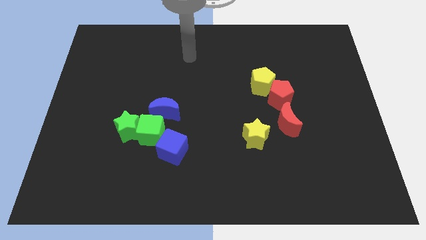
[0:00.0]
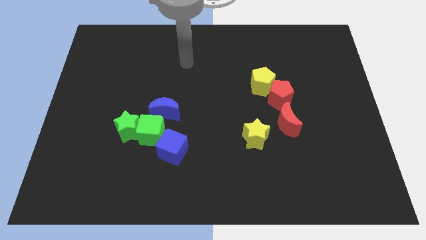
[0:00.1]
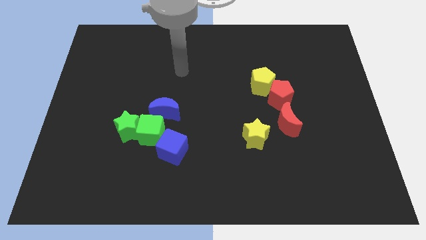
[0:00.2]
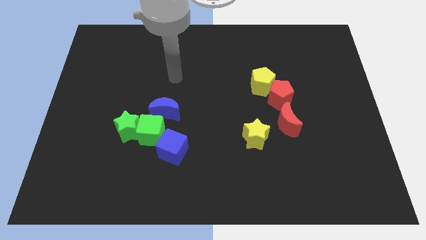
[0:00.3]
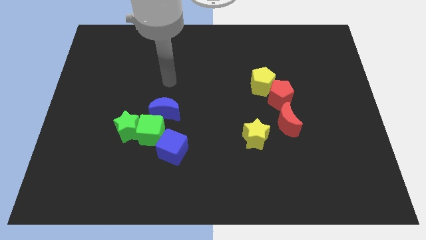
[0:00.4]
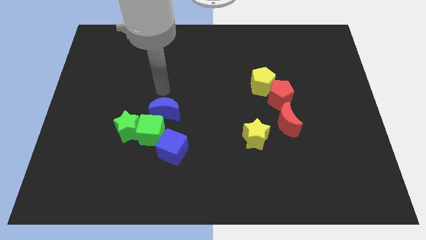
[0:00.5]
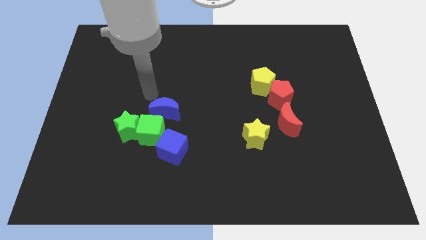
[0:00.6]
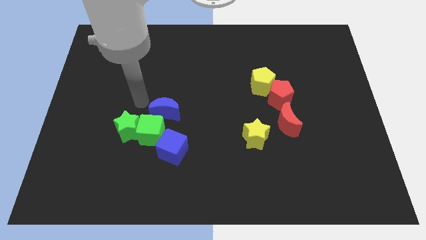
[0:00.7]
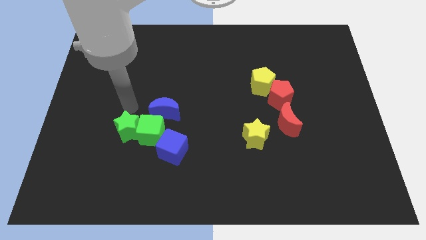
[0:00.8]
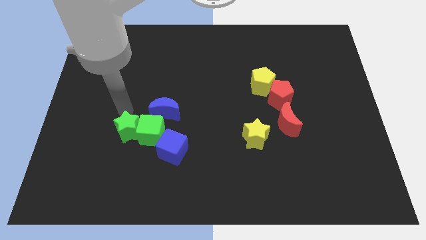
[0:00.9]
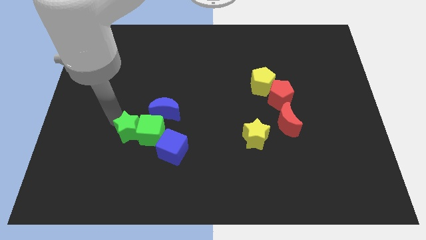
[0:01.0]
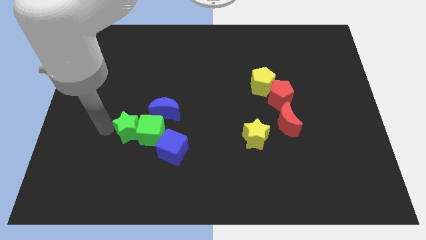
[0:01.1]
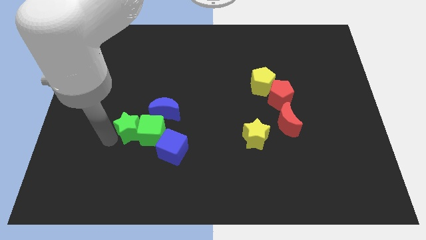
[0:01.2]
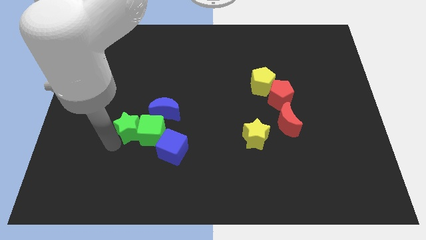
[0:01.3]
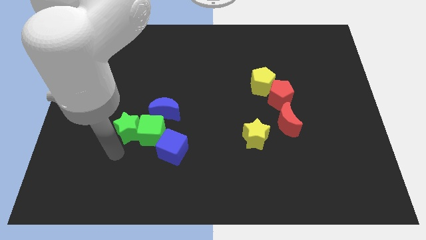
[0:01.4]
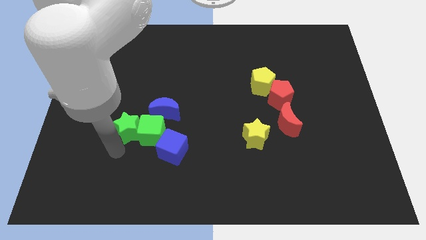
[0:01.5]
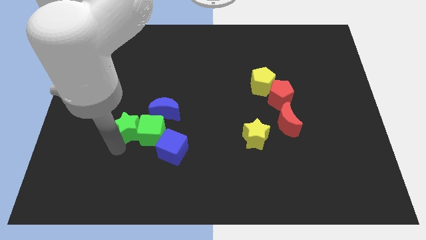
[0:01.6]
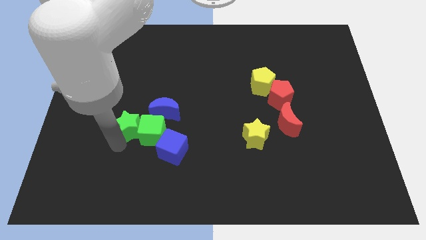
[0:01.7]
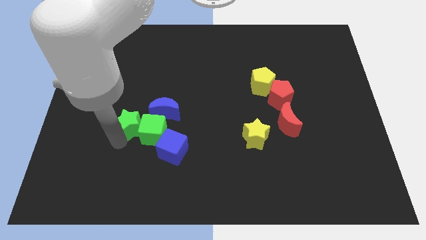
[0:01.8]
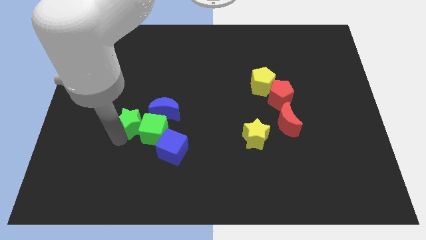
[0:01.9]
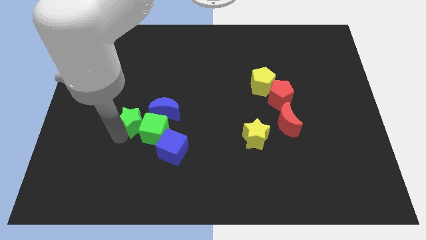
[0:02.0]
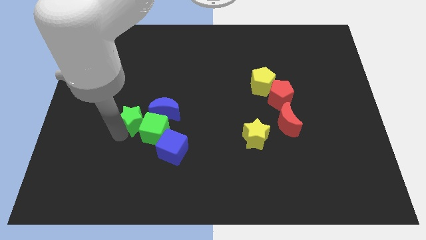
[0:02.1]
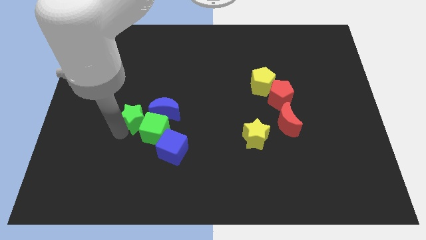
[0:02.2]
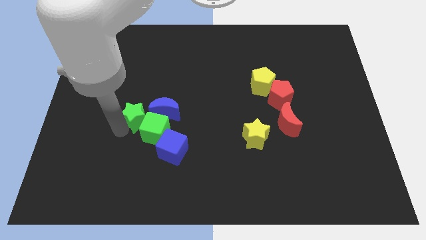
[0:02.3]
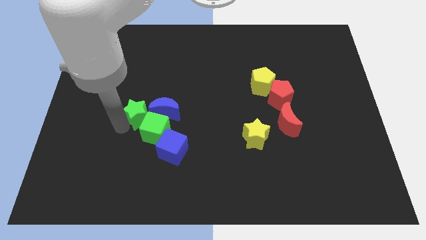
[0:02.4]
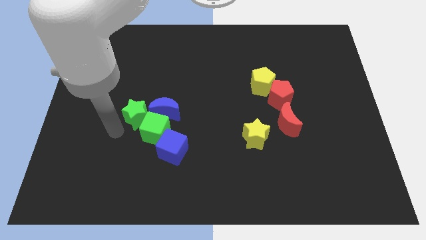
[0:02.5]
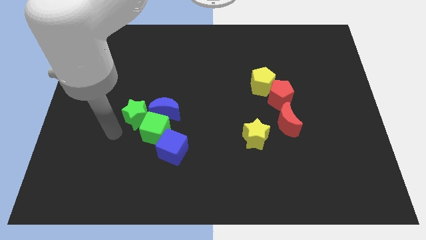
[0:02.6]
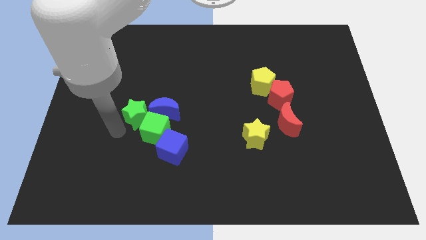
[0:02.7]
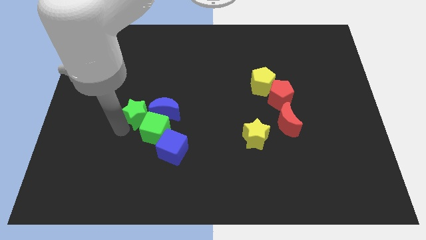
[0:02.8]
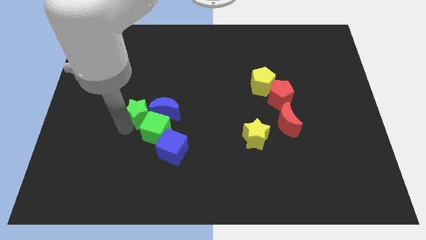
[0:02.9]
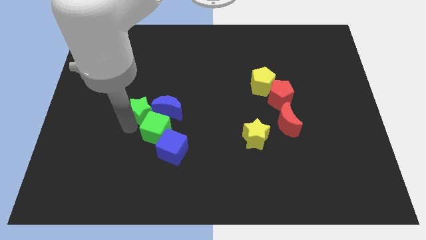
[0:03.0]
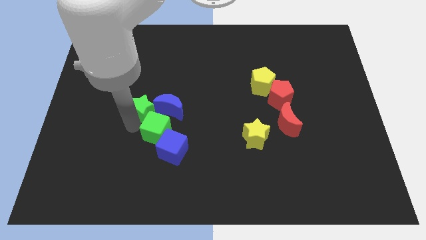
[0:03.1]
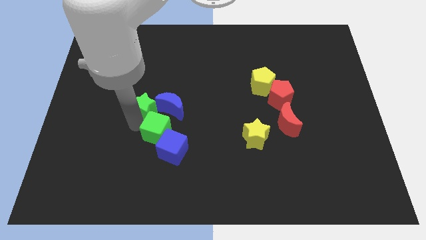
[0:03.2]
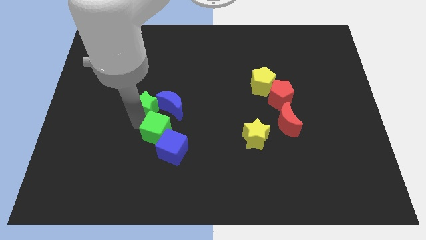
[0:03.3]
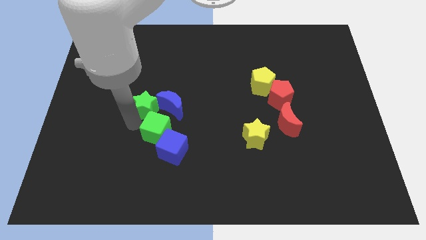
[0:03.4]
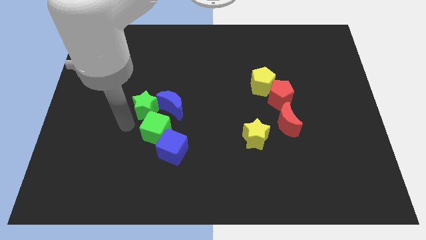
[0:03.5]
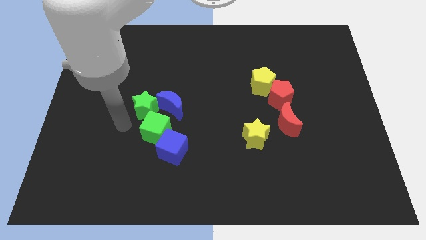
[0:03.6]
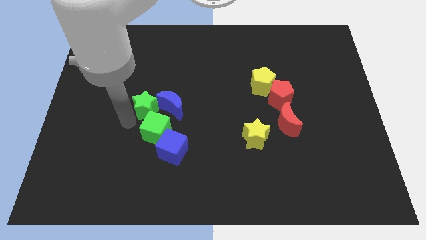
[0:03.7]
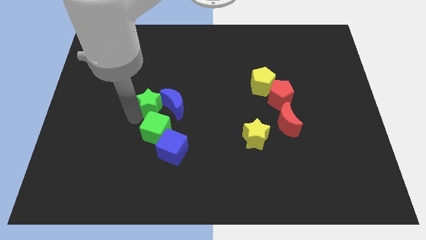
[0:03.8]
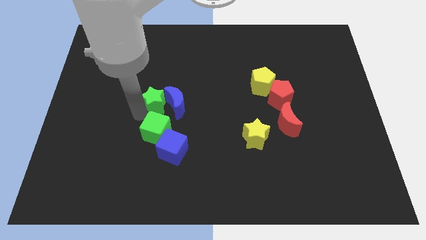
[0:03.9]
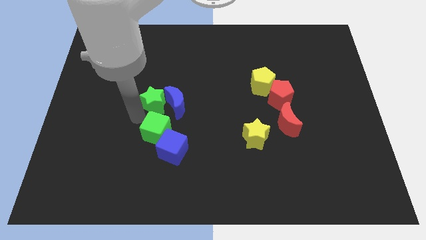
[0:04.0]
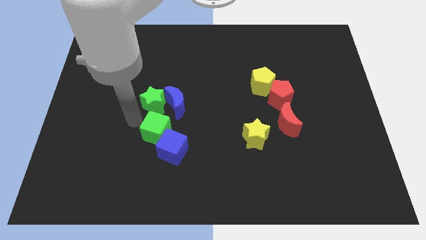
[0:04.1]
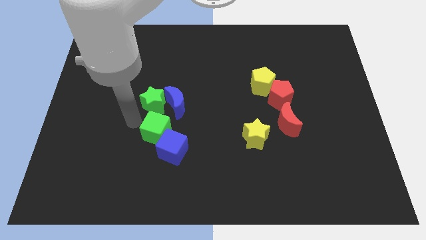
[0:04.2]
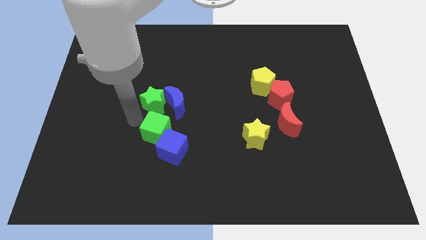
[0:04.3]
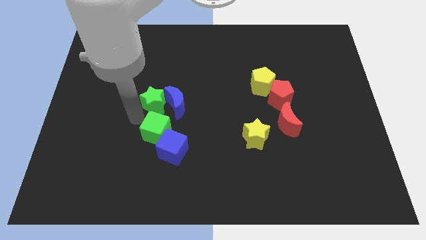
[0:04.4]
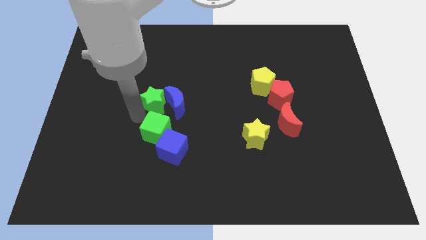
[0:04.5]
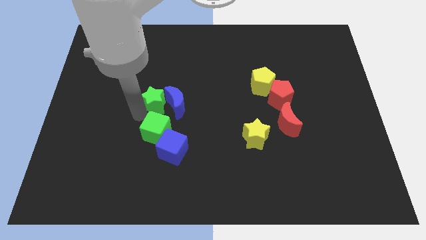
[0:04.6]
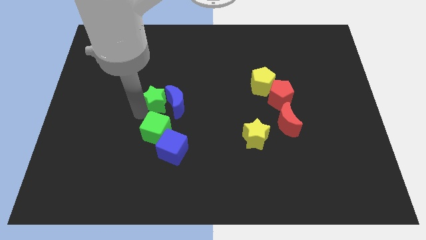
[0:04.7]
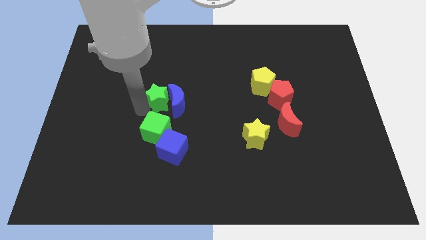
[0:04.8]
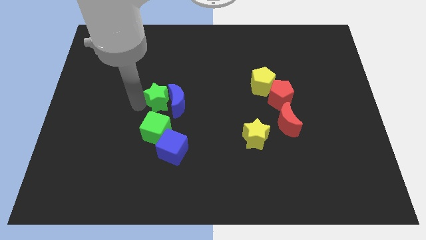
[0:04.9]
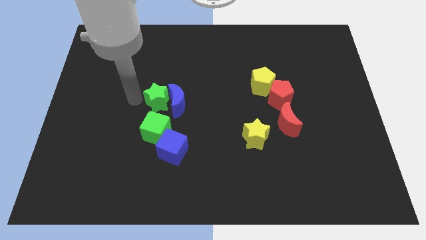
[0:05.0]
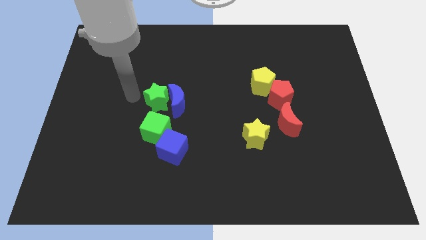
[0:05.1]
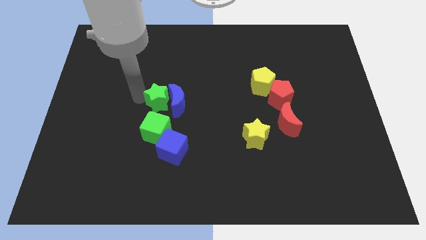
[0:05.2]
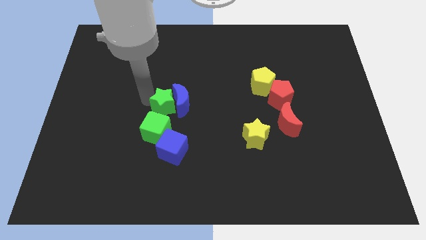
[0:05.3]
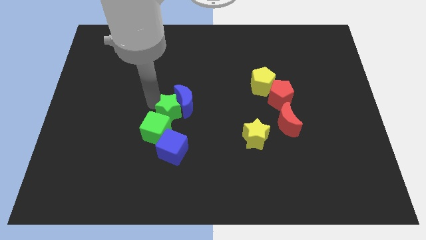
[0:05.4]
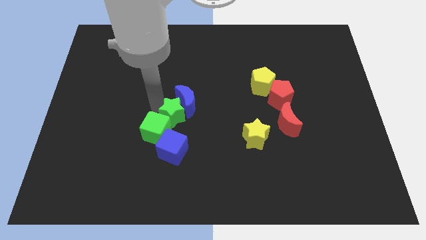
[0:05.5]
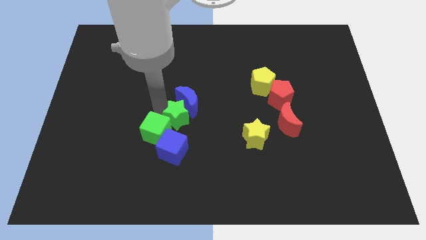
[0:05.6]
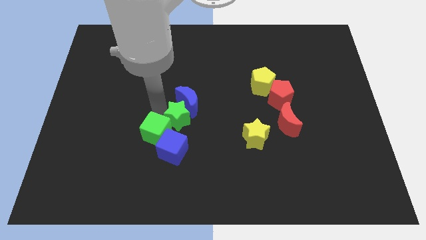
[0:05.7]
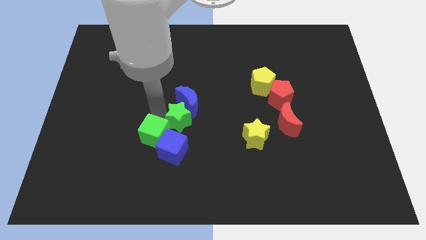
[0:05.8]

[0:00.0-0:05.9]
move the green star diagonally up and to the right of the blue cube

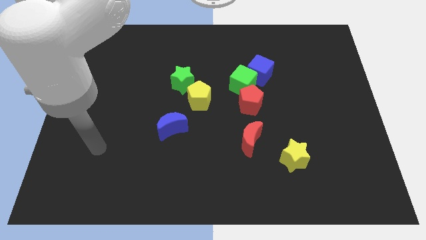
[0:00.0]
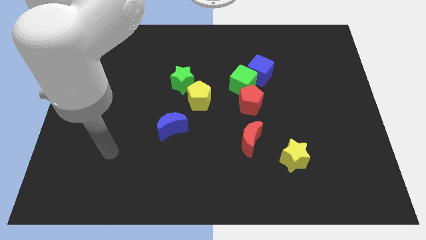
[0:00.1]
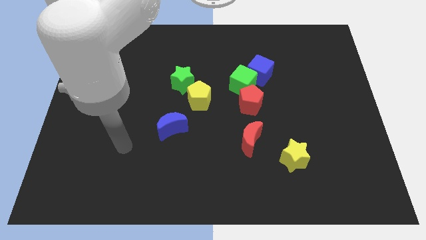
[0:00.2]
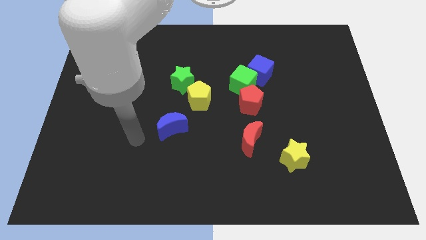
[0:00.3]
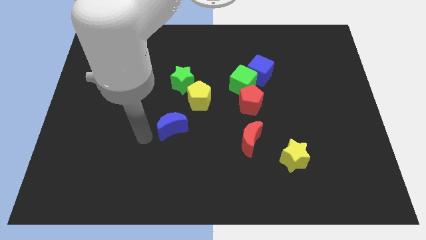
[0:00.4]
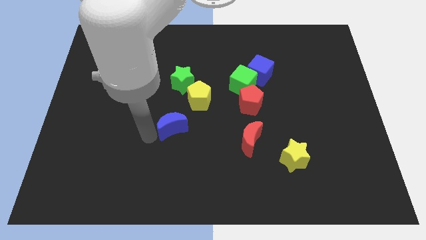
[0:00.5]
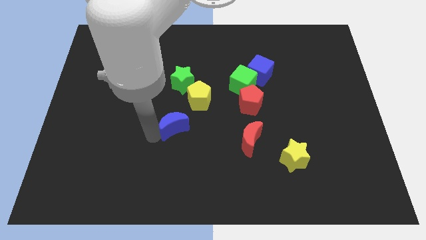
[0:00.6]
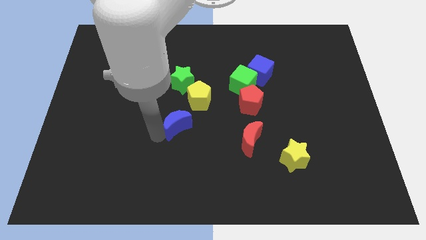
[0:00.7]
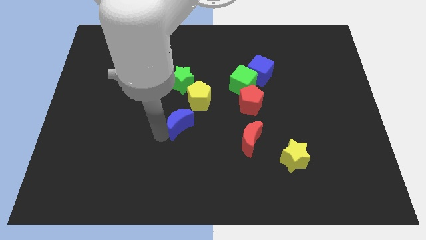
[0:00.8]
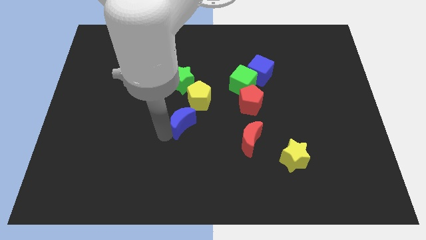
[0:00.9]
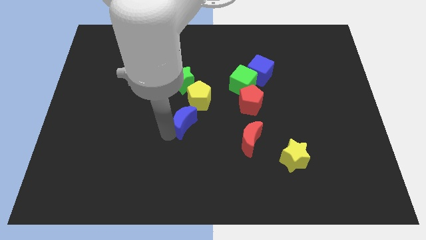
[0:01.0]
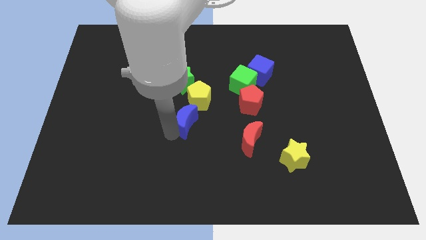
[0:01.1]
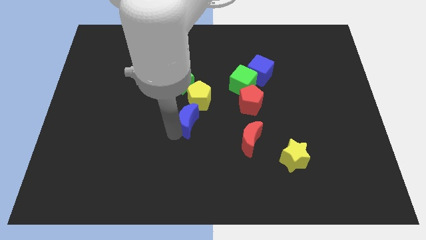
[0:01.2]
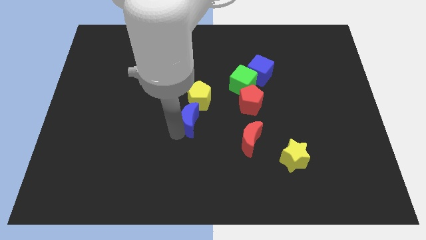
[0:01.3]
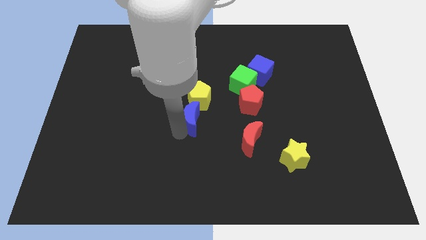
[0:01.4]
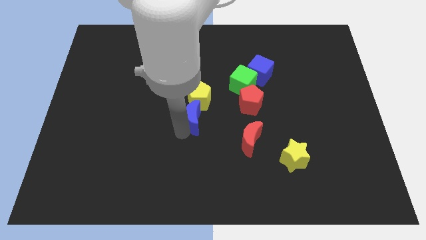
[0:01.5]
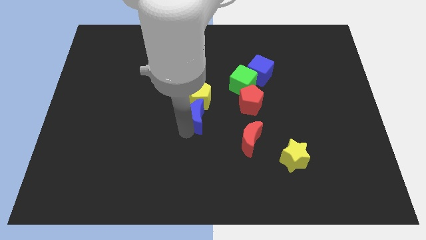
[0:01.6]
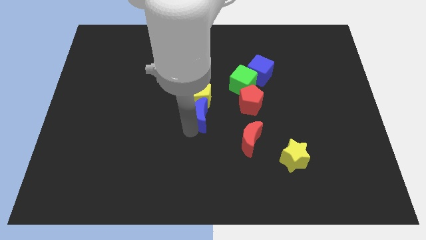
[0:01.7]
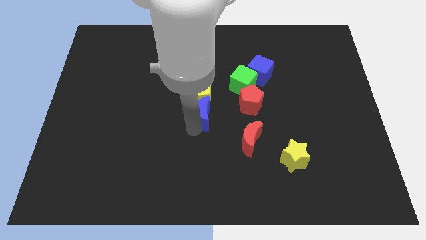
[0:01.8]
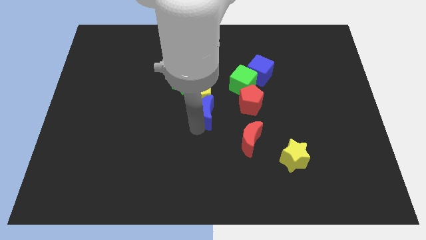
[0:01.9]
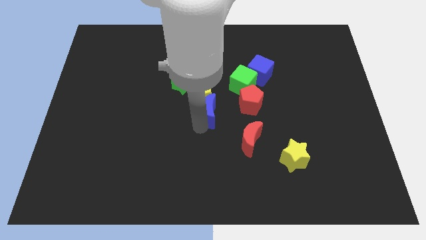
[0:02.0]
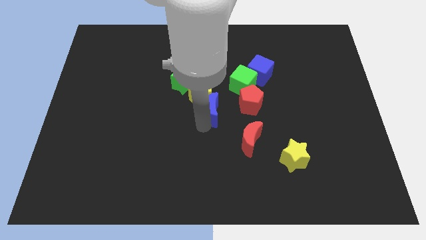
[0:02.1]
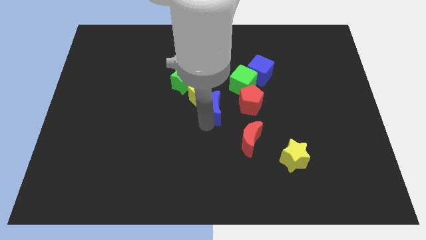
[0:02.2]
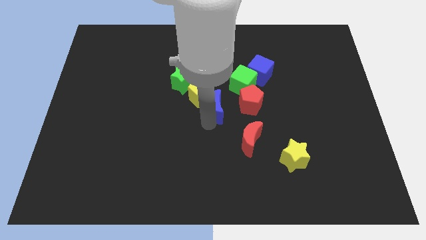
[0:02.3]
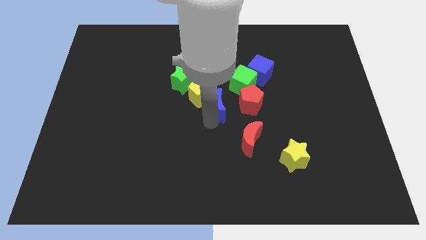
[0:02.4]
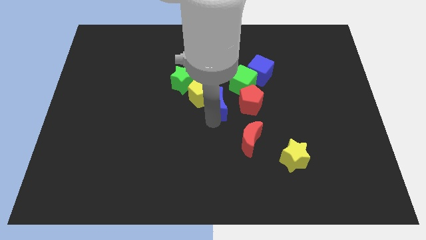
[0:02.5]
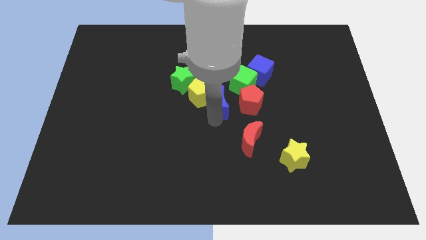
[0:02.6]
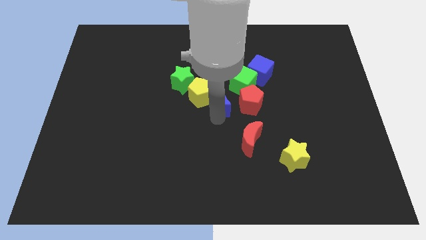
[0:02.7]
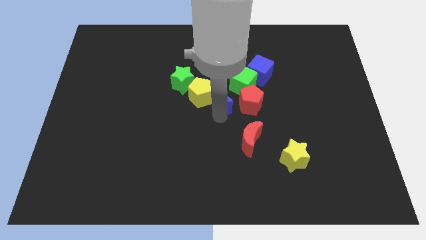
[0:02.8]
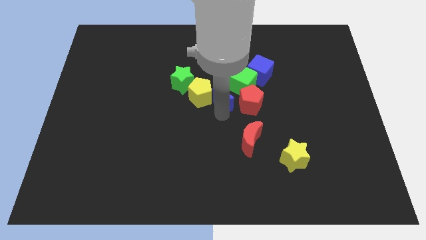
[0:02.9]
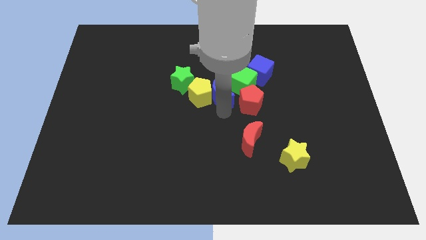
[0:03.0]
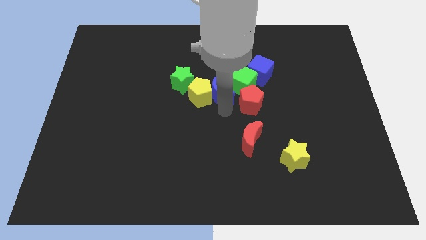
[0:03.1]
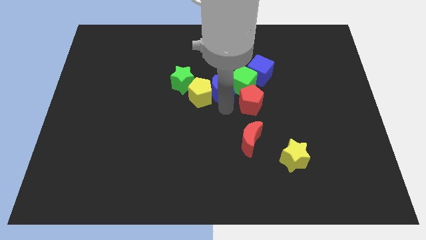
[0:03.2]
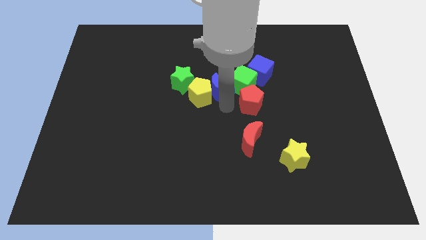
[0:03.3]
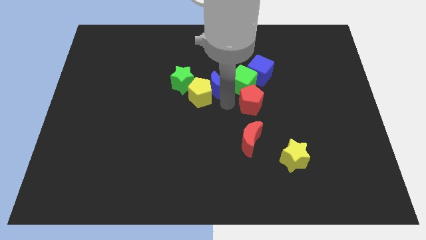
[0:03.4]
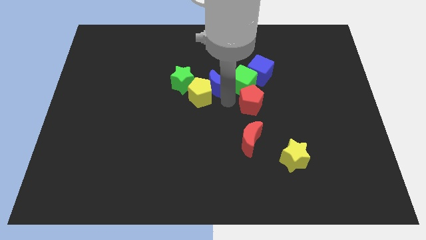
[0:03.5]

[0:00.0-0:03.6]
put the blue moon to the top left side of the green cube
